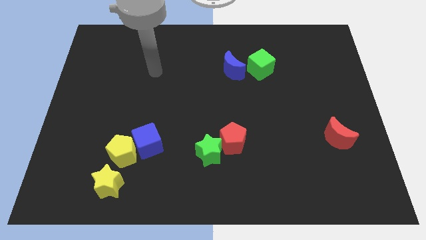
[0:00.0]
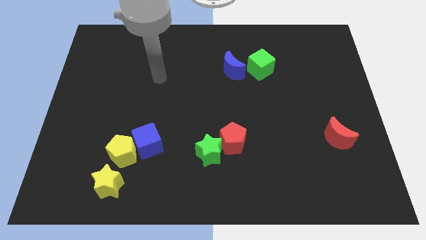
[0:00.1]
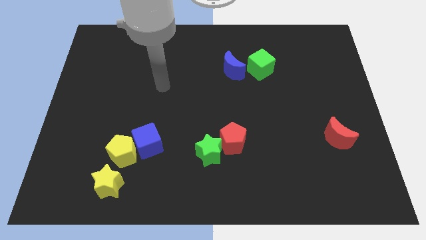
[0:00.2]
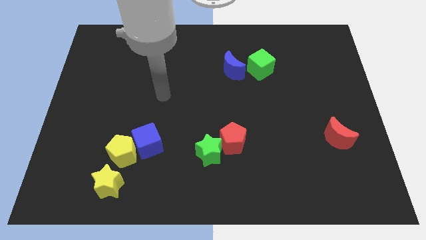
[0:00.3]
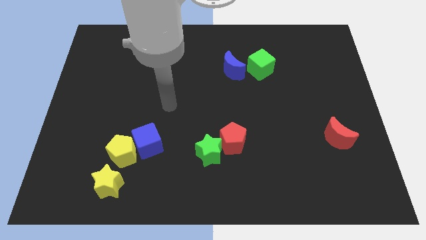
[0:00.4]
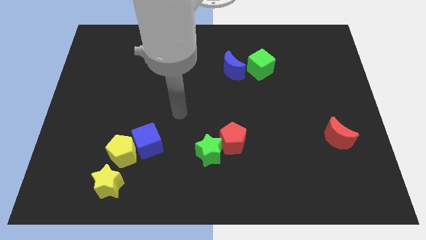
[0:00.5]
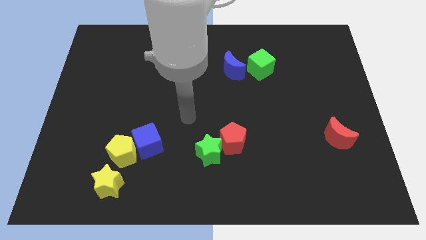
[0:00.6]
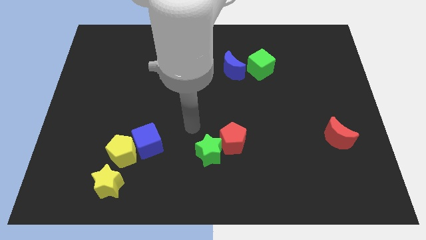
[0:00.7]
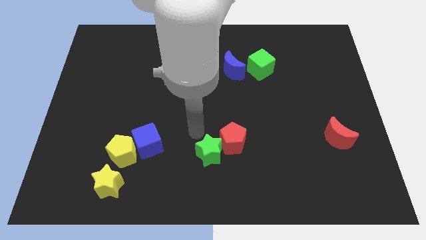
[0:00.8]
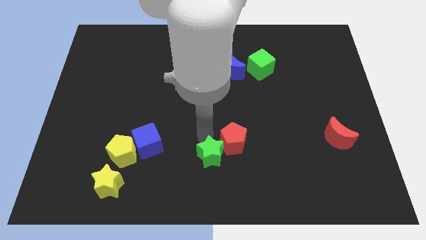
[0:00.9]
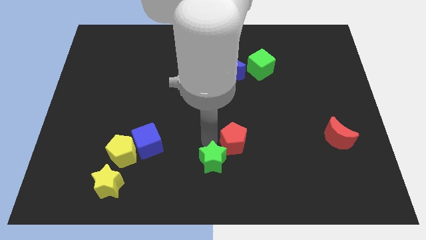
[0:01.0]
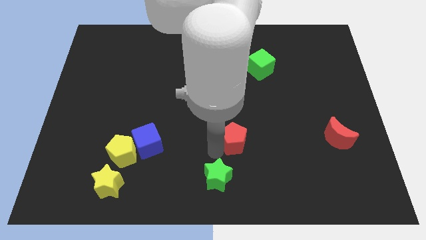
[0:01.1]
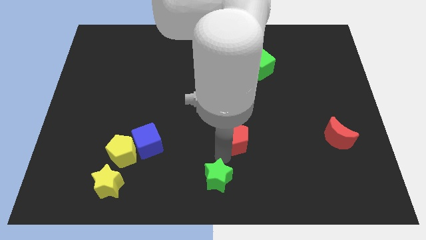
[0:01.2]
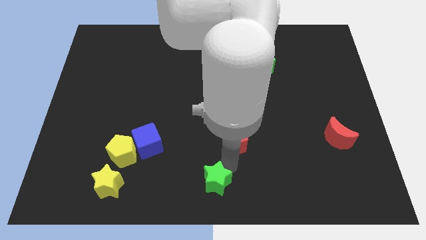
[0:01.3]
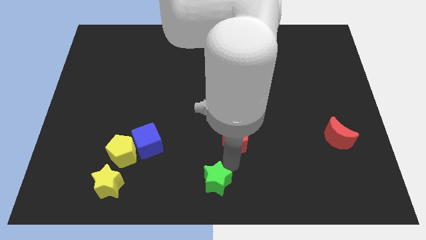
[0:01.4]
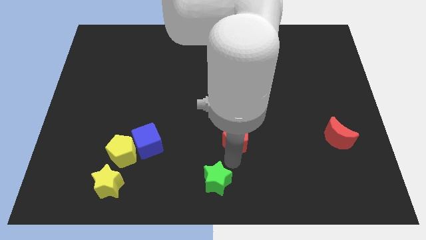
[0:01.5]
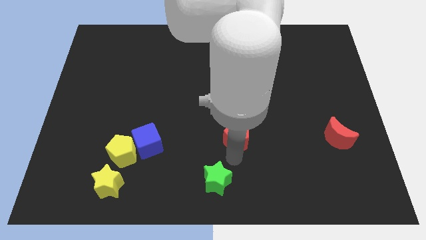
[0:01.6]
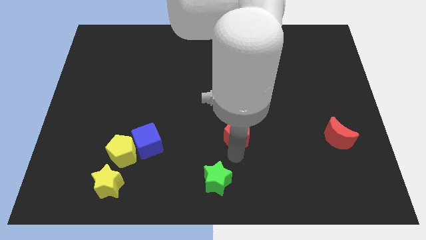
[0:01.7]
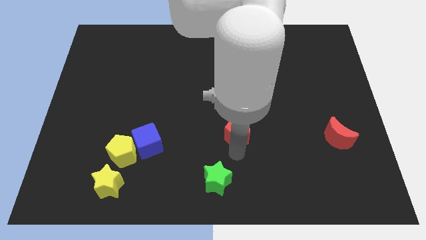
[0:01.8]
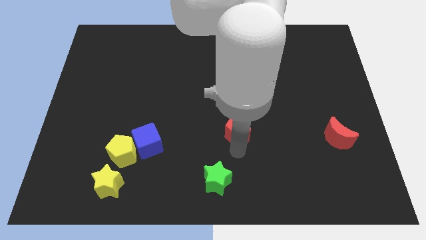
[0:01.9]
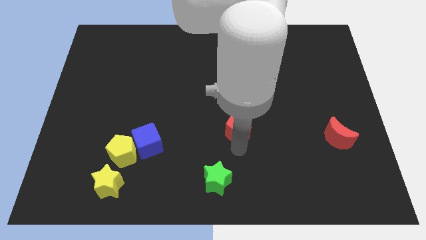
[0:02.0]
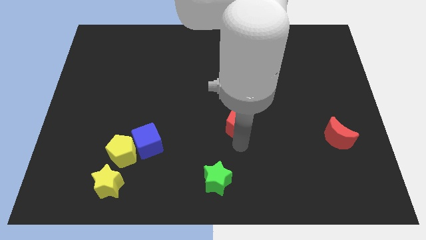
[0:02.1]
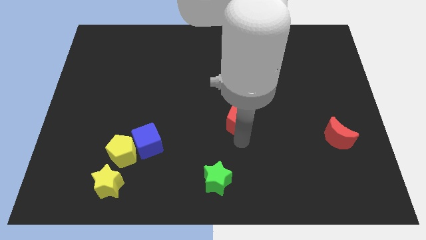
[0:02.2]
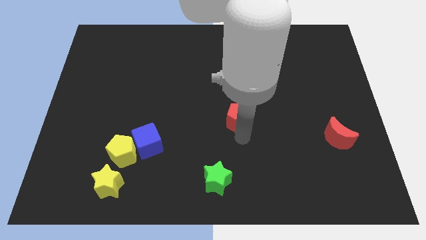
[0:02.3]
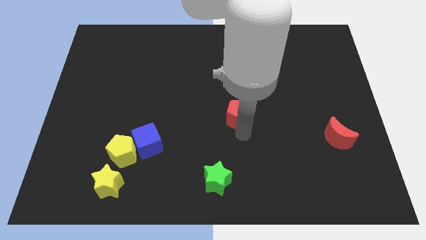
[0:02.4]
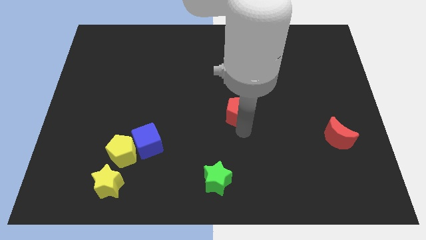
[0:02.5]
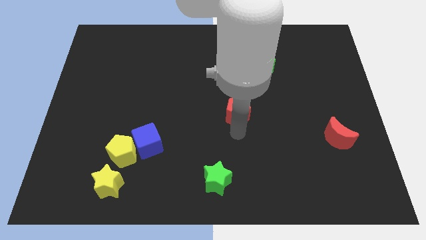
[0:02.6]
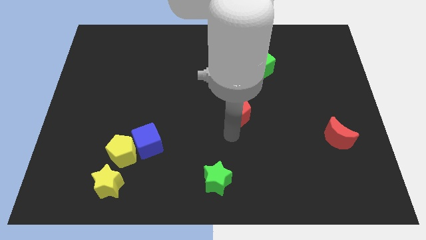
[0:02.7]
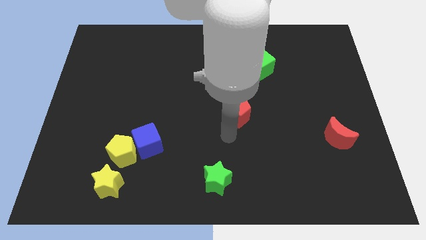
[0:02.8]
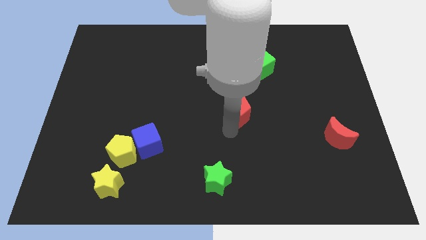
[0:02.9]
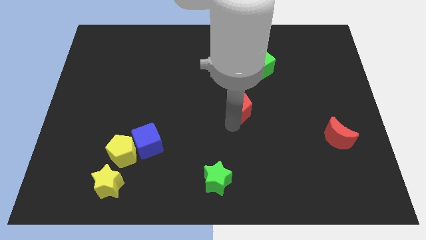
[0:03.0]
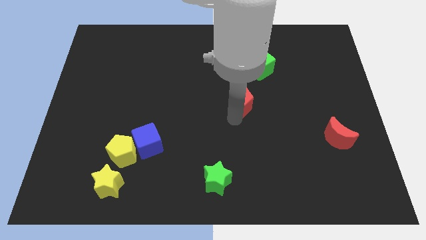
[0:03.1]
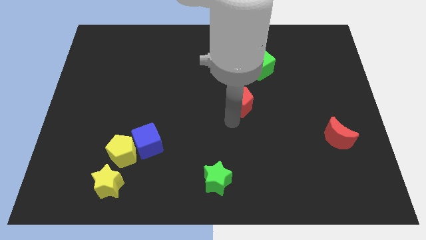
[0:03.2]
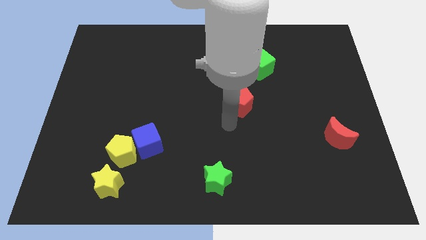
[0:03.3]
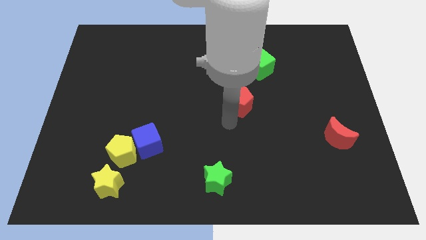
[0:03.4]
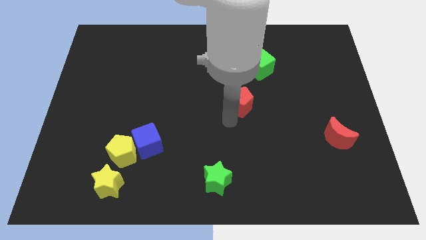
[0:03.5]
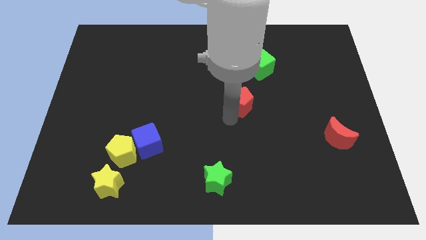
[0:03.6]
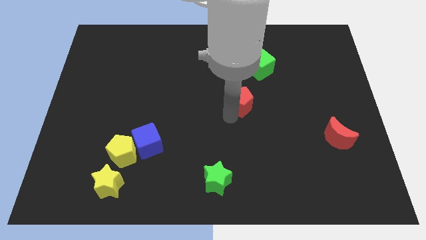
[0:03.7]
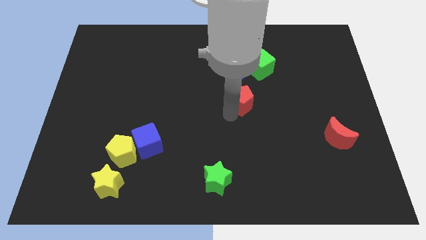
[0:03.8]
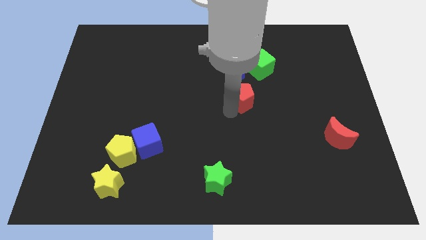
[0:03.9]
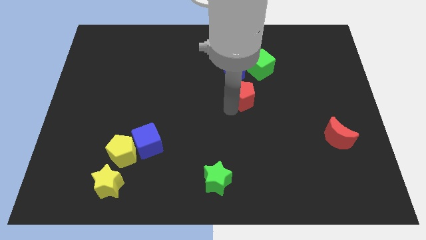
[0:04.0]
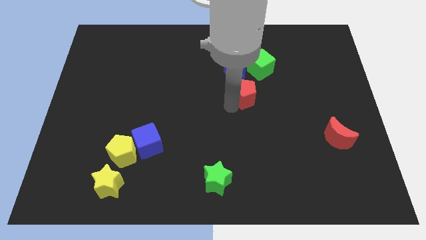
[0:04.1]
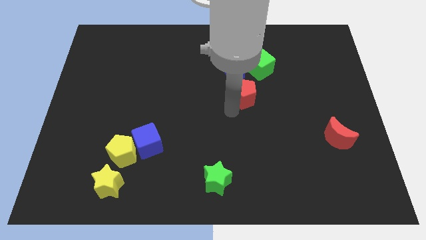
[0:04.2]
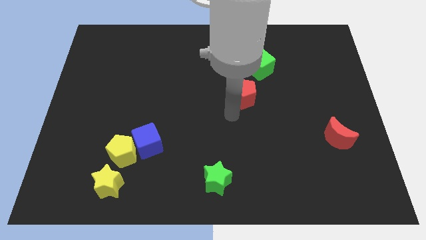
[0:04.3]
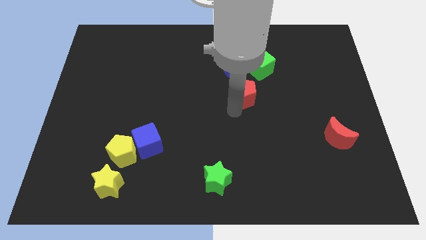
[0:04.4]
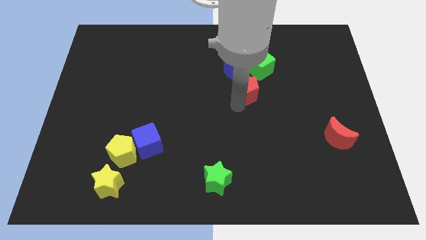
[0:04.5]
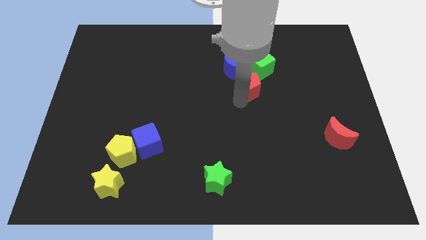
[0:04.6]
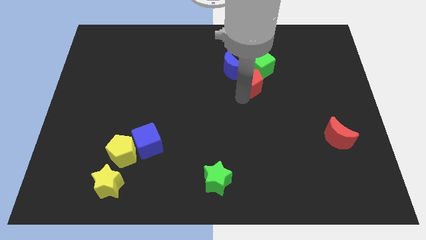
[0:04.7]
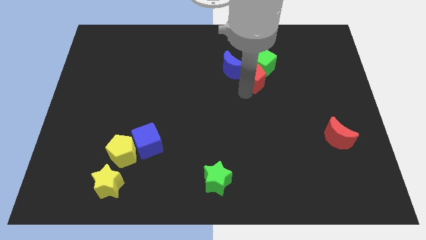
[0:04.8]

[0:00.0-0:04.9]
move the red pentagon to the green cube

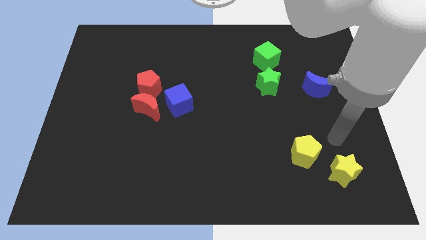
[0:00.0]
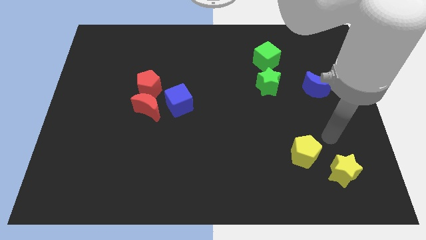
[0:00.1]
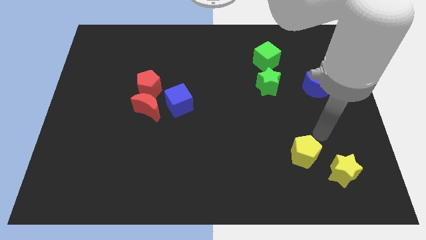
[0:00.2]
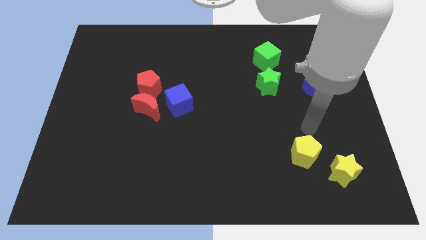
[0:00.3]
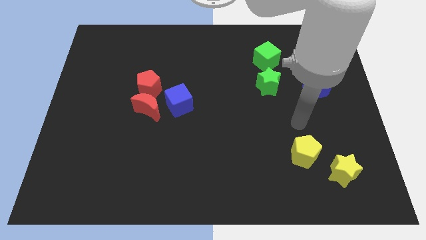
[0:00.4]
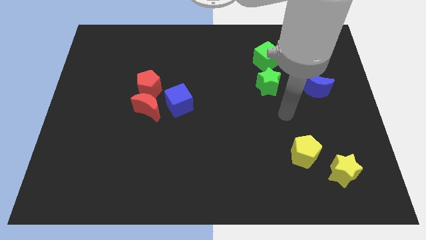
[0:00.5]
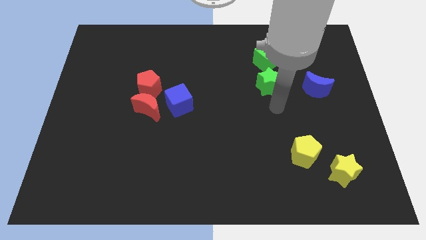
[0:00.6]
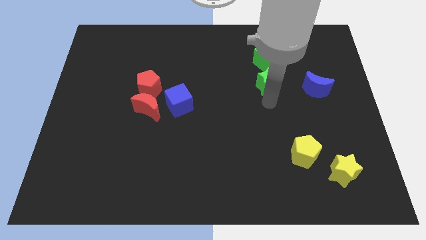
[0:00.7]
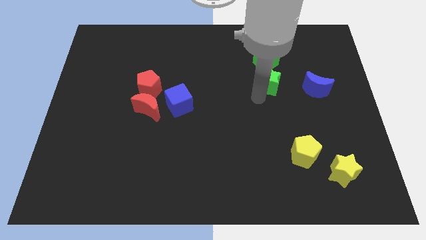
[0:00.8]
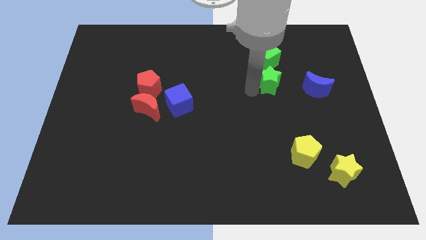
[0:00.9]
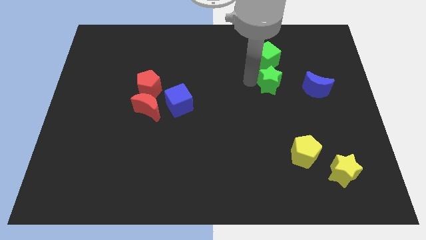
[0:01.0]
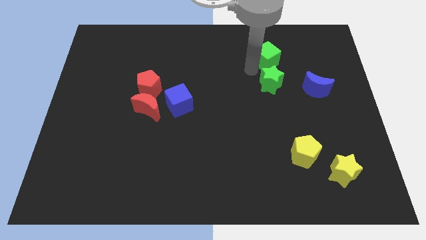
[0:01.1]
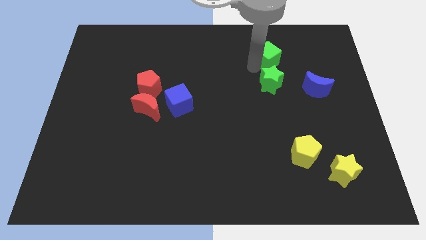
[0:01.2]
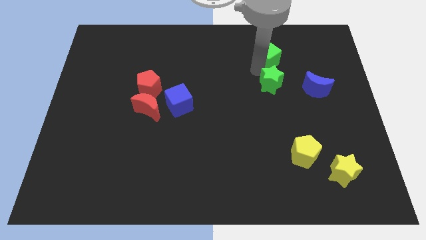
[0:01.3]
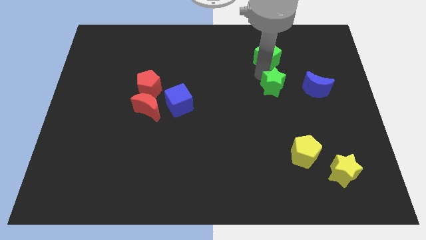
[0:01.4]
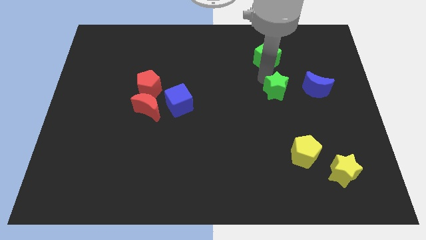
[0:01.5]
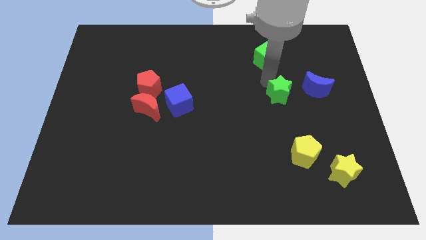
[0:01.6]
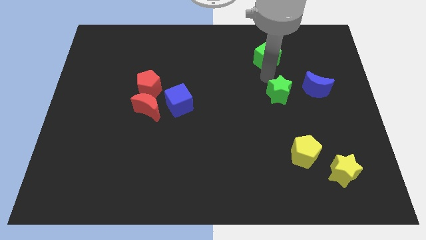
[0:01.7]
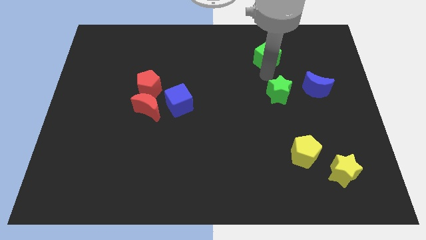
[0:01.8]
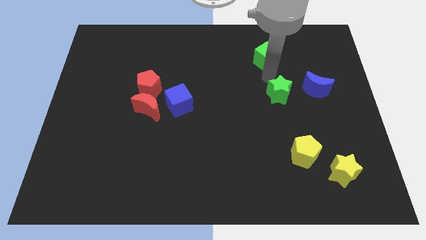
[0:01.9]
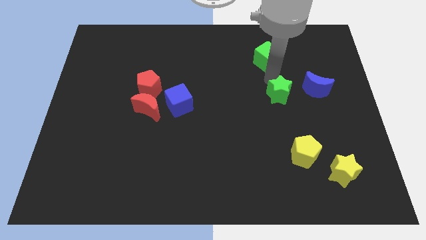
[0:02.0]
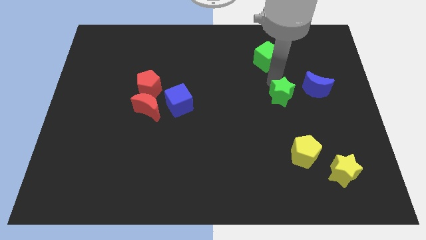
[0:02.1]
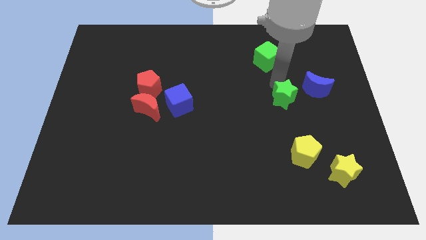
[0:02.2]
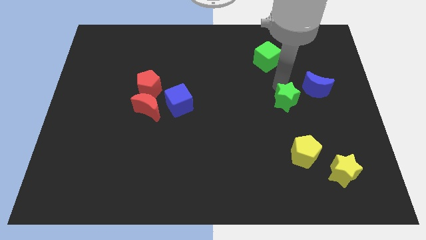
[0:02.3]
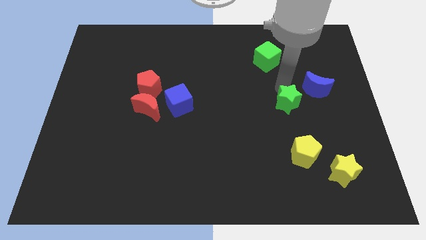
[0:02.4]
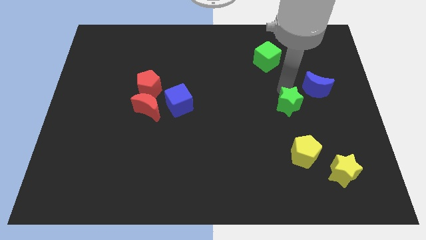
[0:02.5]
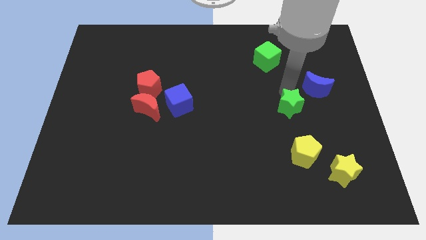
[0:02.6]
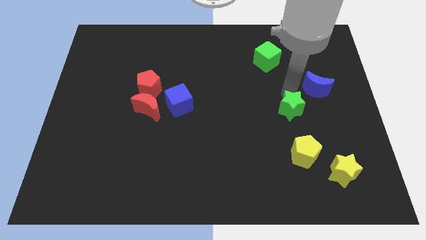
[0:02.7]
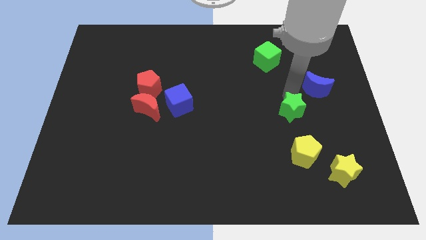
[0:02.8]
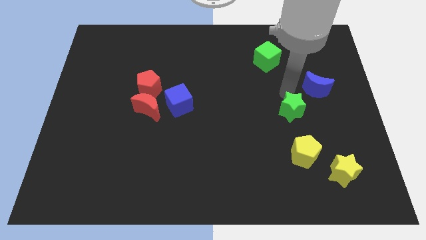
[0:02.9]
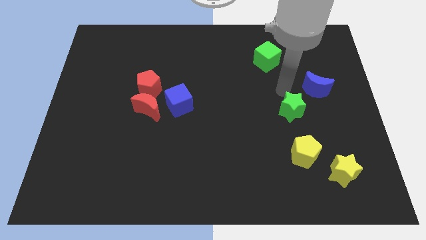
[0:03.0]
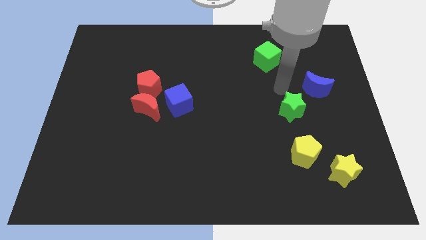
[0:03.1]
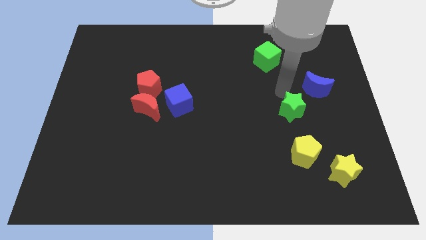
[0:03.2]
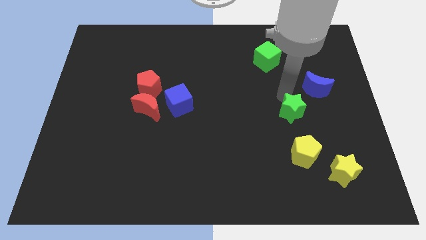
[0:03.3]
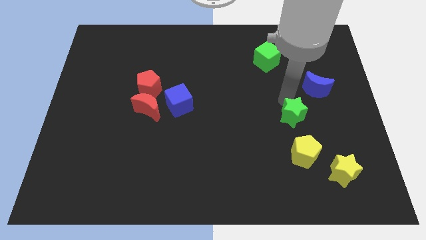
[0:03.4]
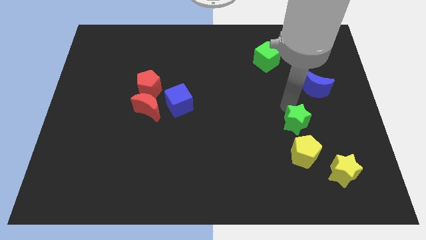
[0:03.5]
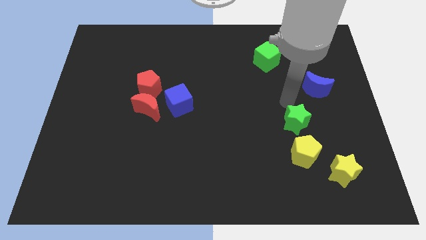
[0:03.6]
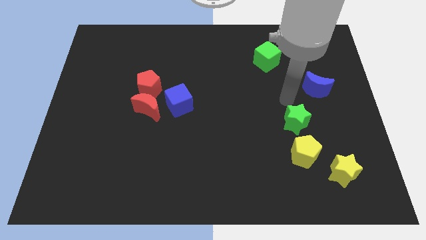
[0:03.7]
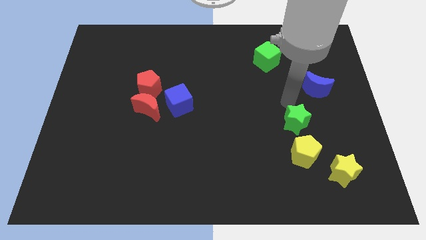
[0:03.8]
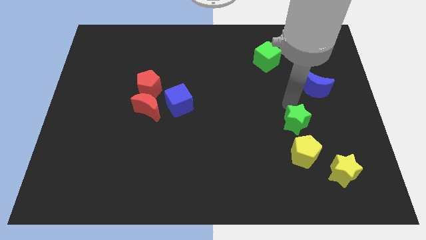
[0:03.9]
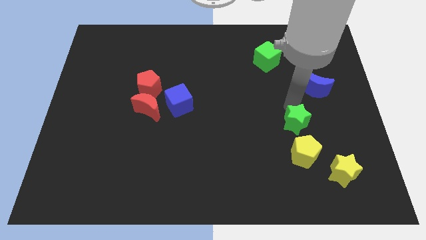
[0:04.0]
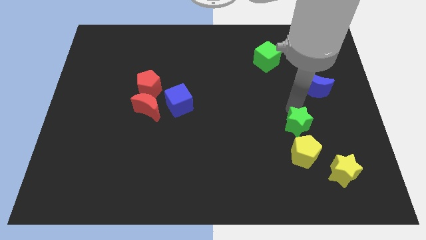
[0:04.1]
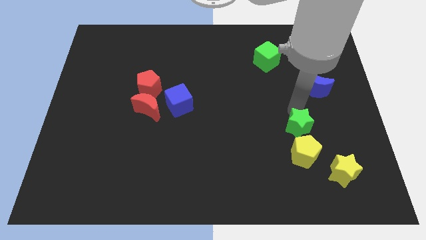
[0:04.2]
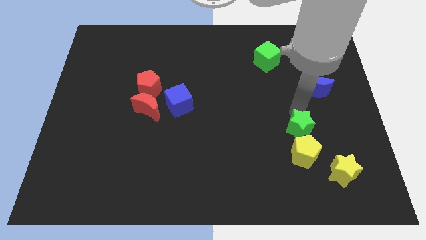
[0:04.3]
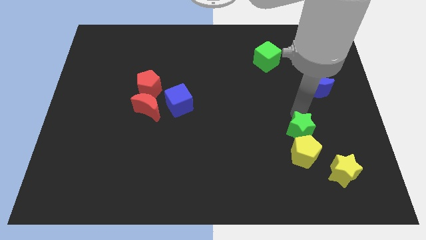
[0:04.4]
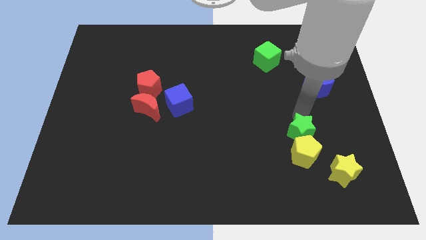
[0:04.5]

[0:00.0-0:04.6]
put the green star close to the yellow pentagon
